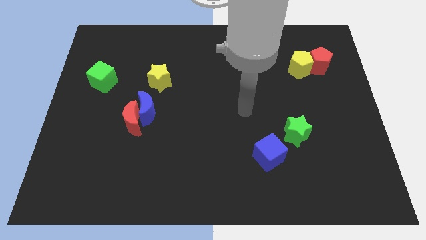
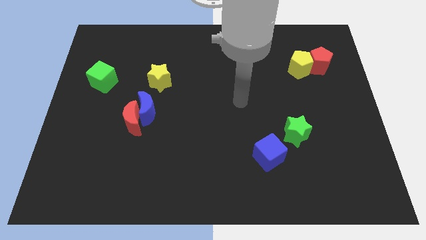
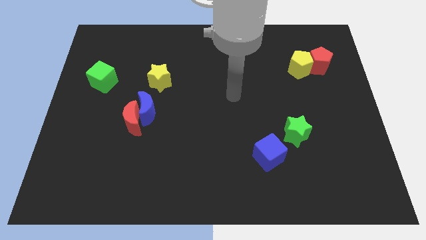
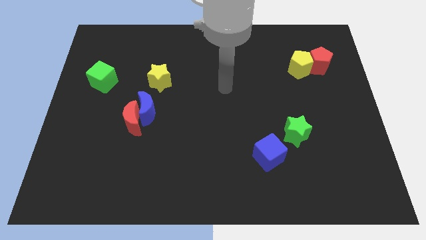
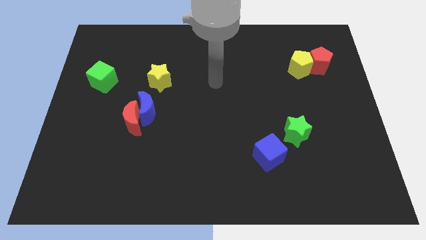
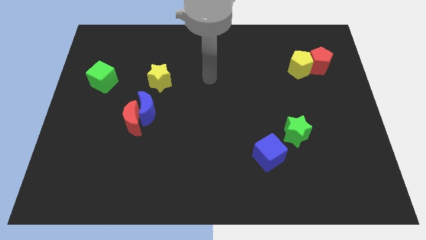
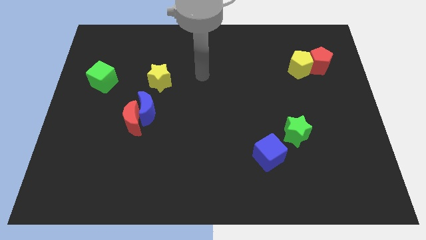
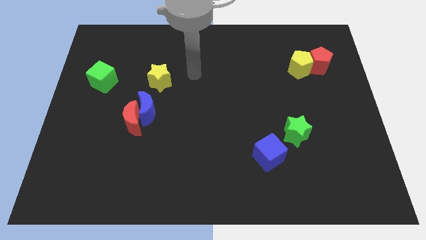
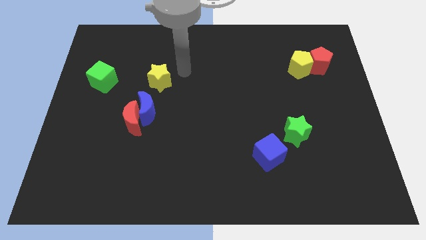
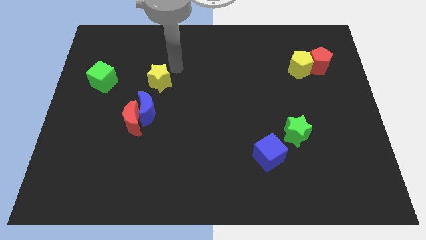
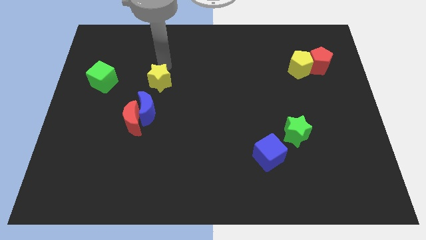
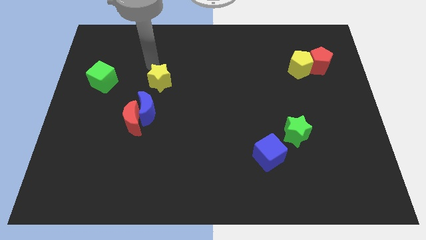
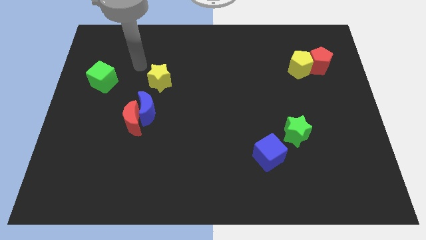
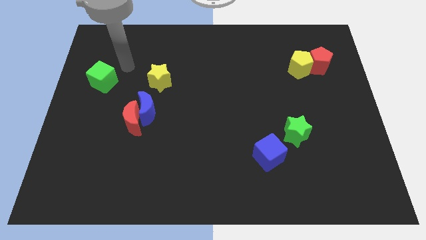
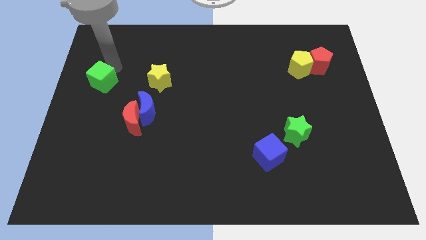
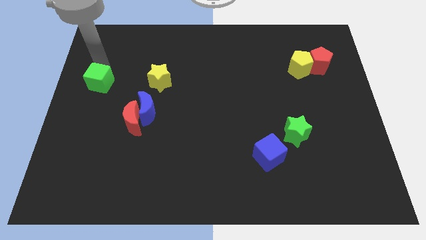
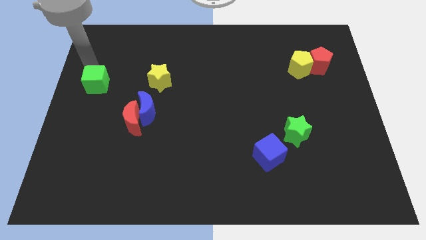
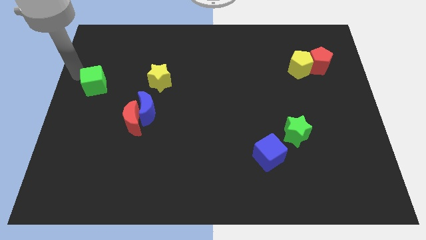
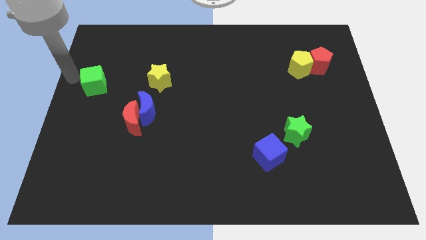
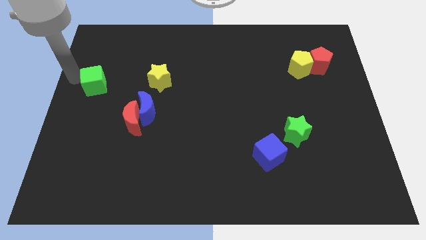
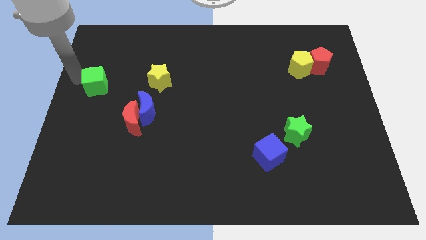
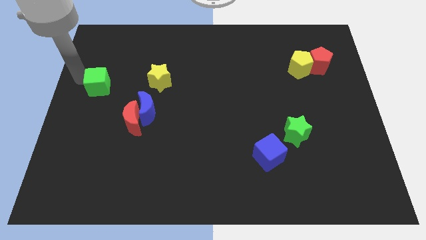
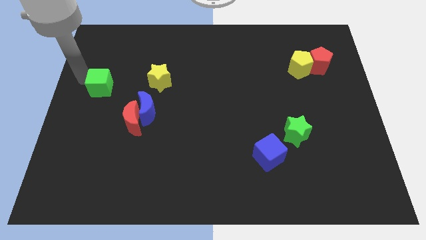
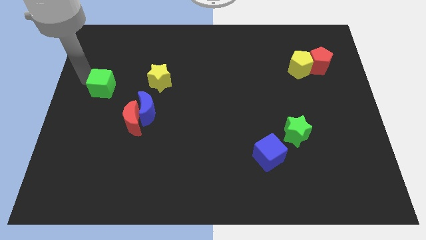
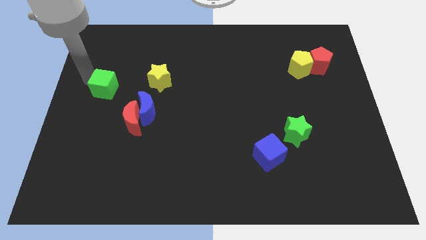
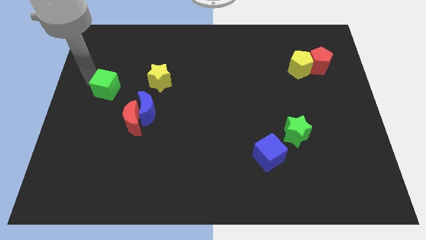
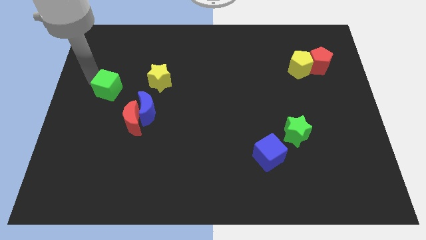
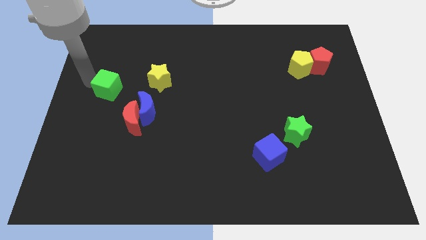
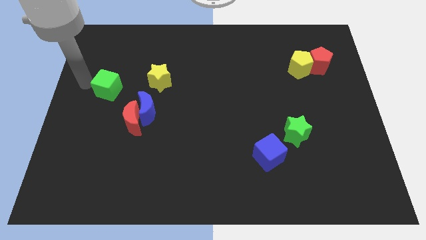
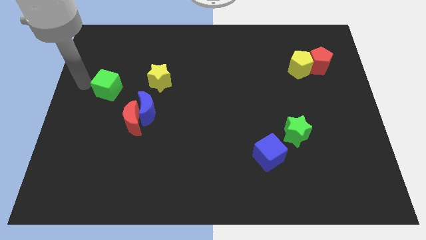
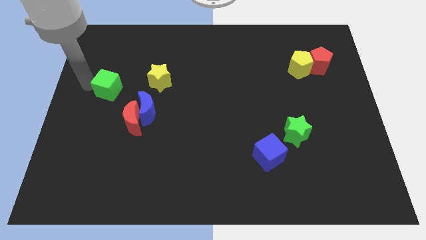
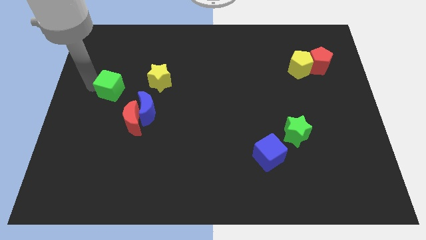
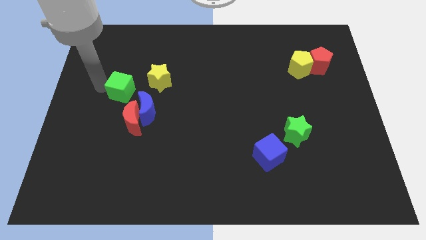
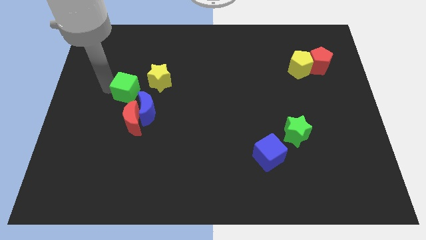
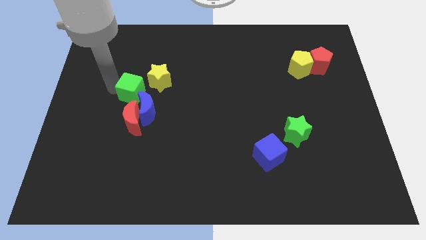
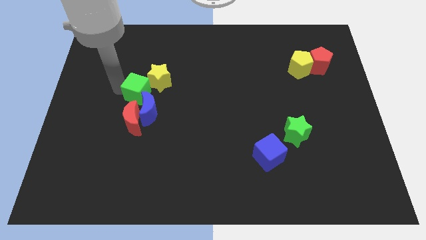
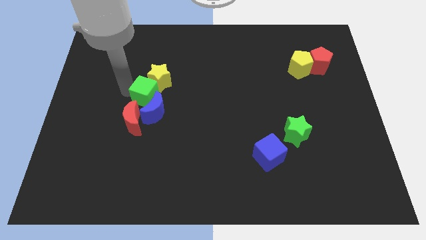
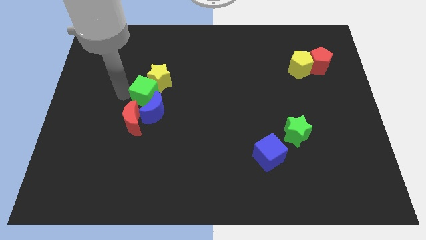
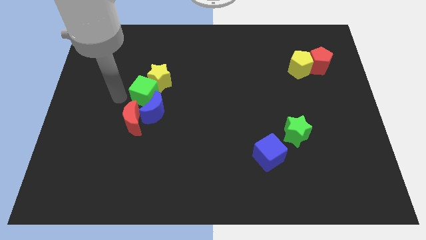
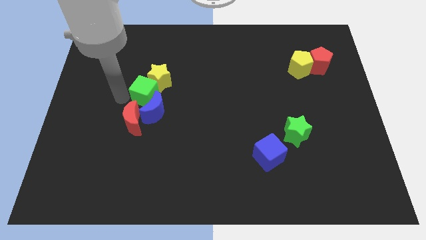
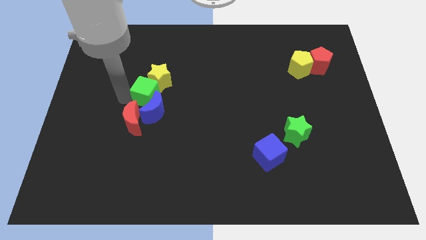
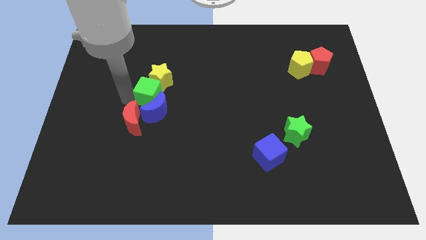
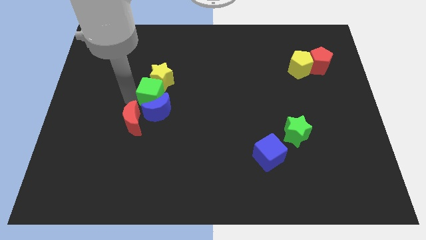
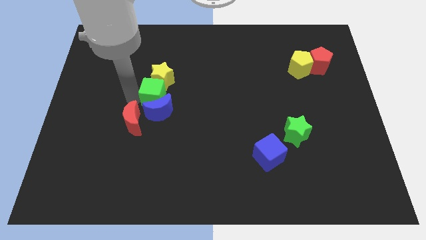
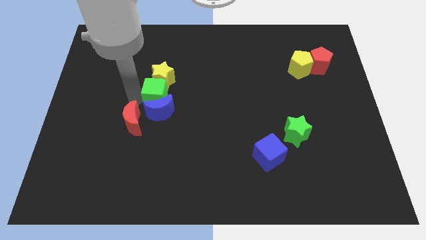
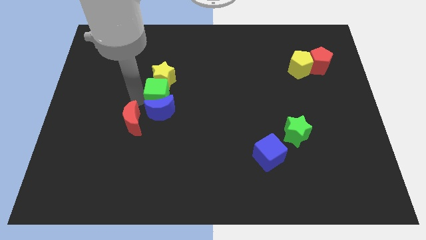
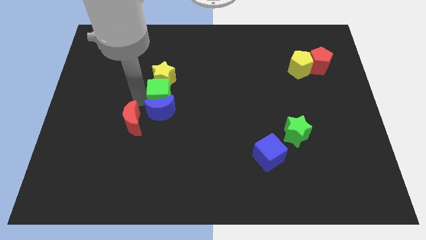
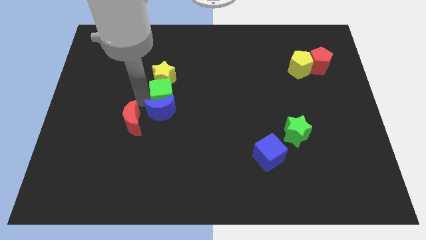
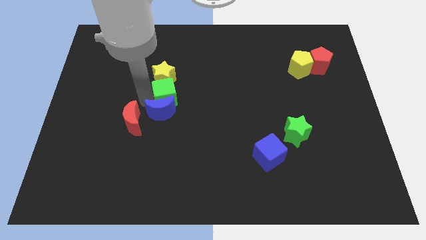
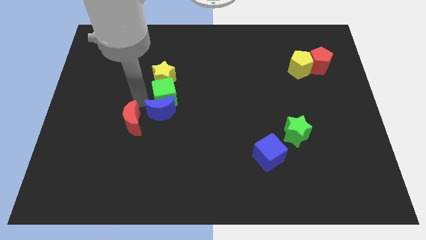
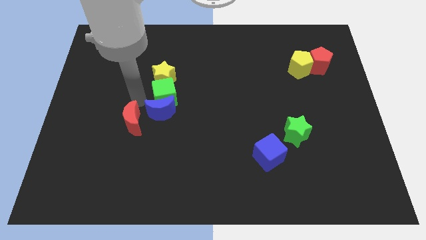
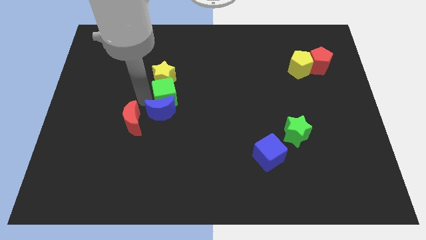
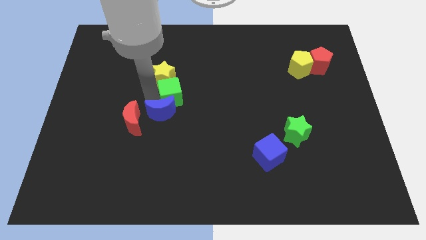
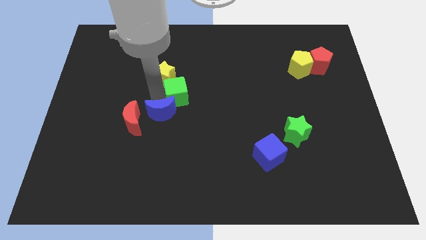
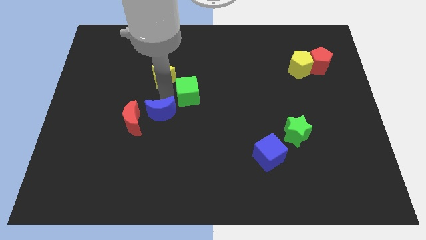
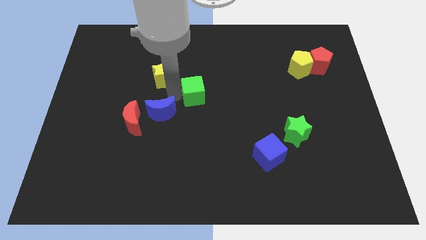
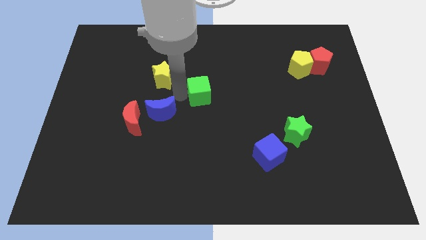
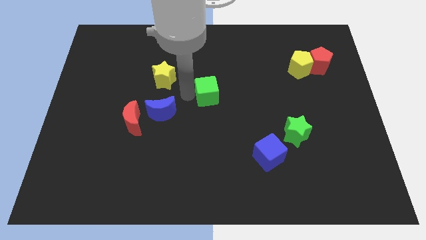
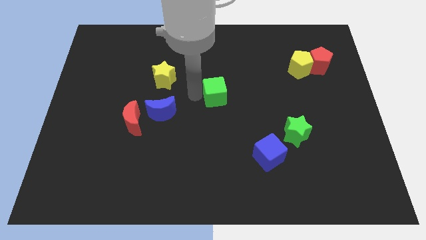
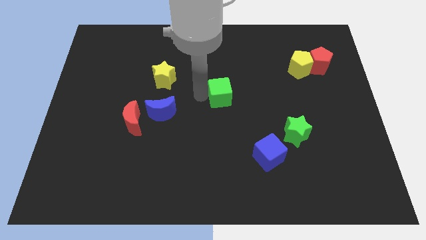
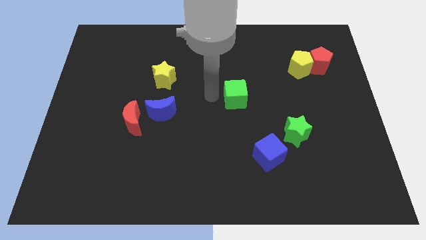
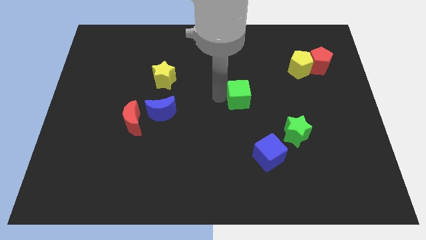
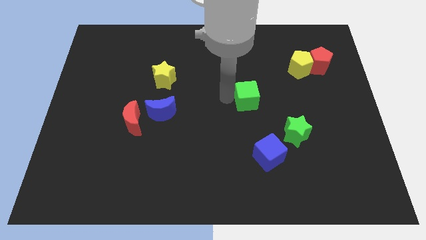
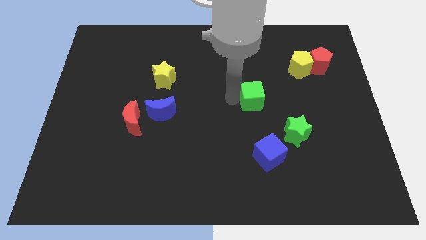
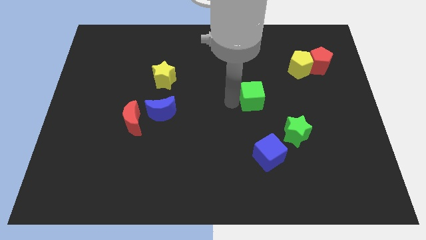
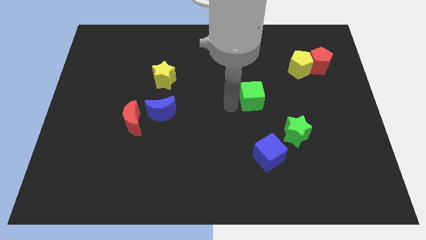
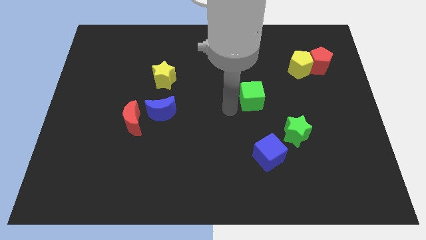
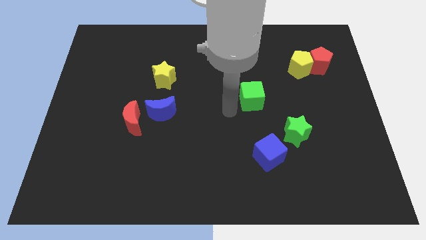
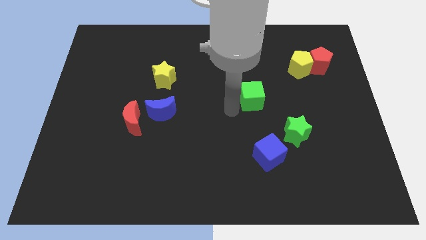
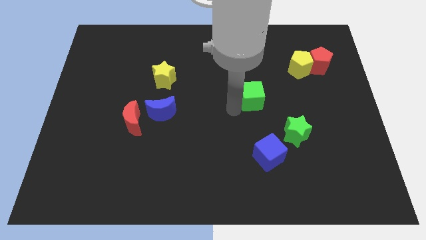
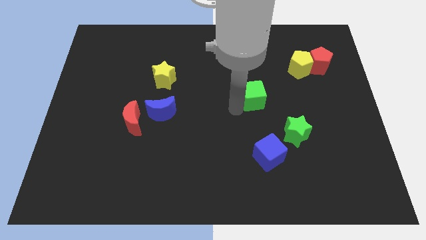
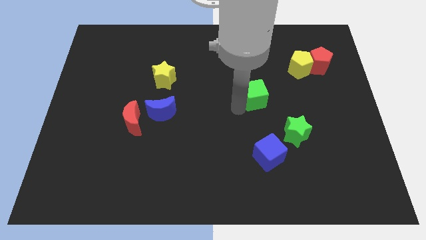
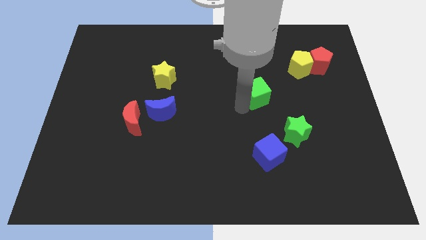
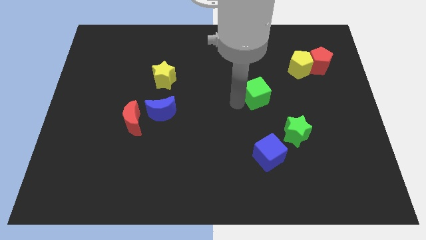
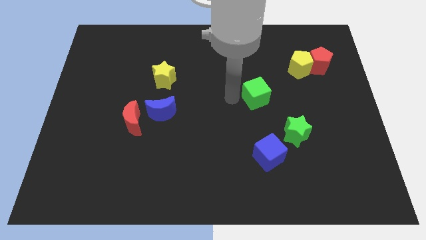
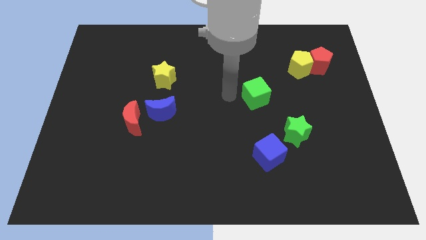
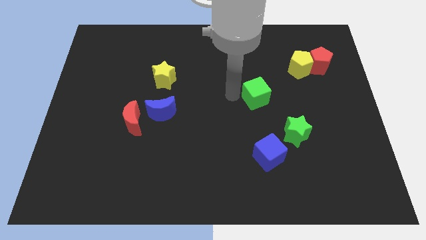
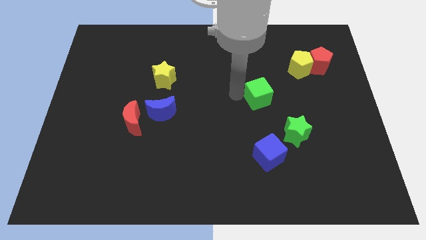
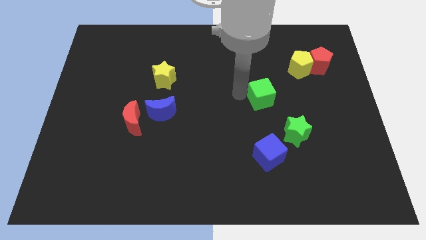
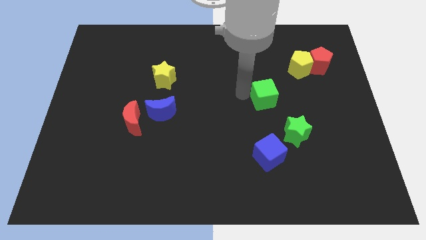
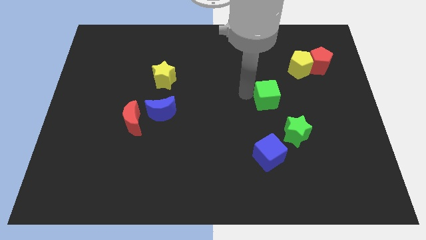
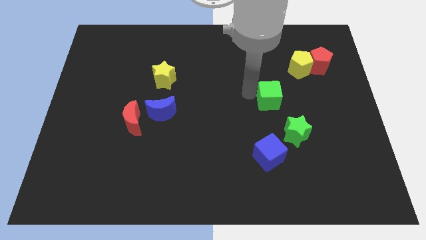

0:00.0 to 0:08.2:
slide the green cube above the green star
